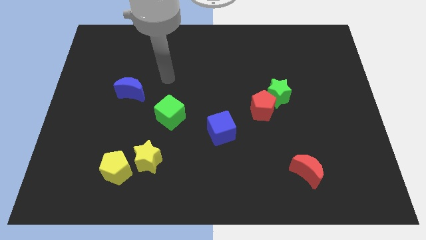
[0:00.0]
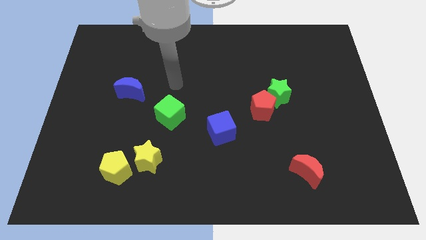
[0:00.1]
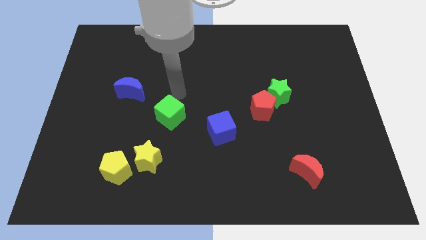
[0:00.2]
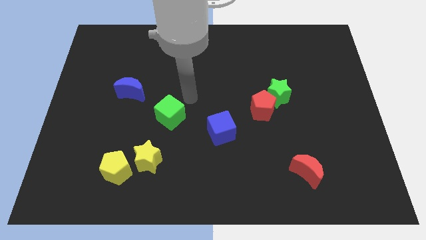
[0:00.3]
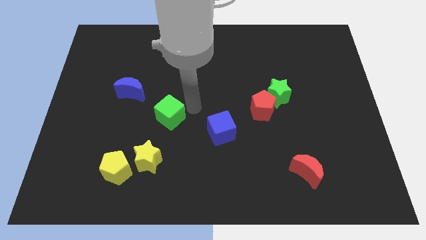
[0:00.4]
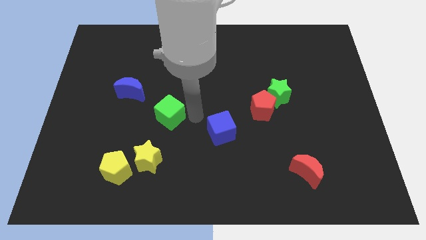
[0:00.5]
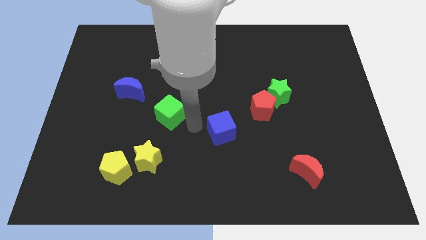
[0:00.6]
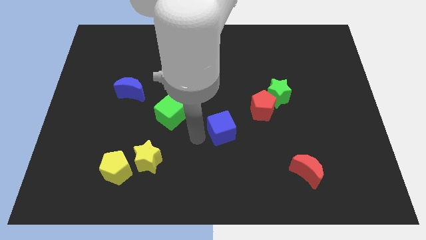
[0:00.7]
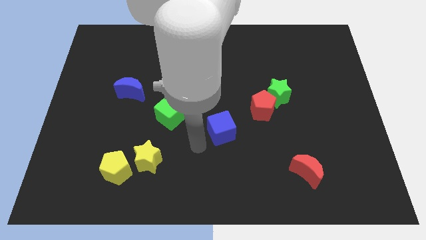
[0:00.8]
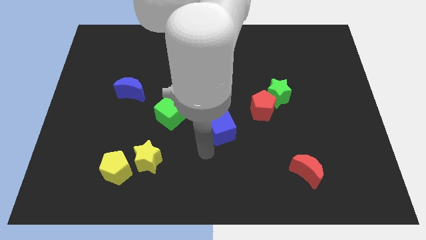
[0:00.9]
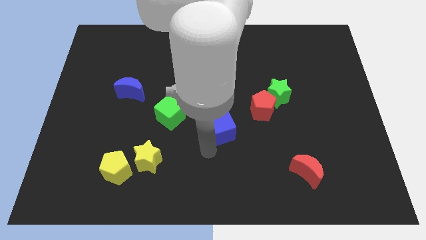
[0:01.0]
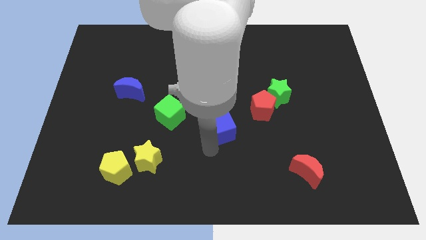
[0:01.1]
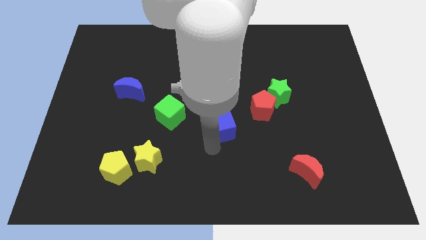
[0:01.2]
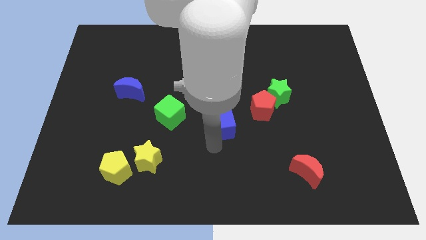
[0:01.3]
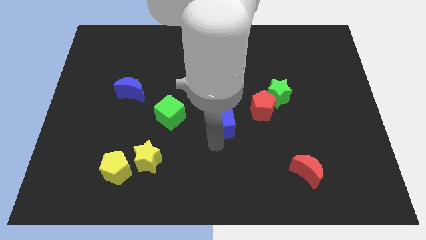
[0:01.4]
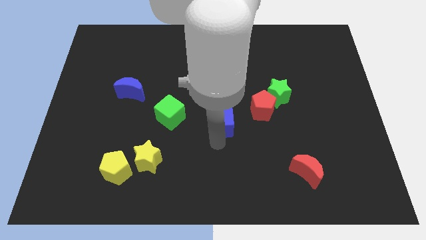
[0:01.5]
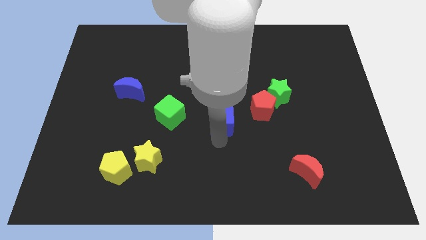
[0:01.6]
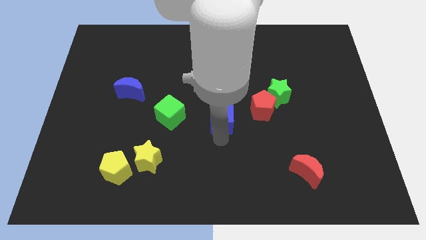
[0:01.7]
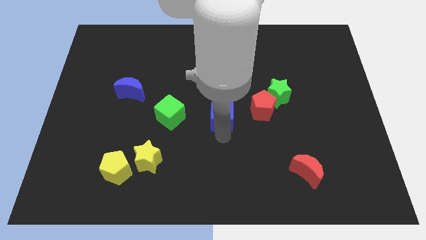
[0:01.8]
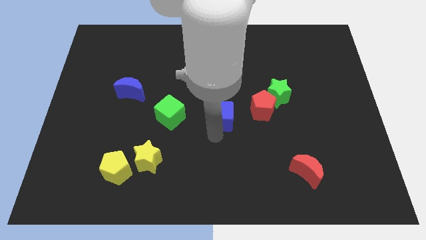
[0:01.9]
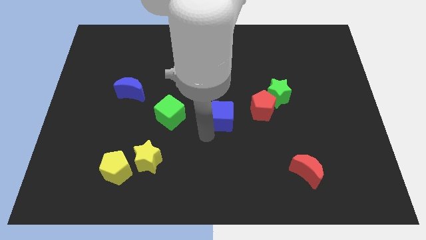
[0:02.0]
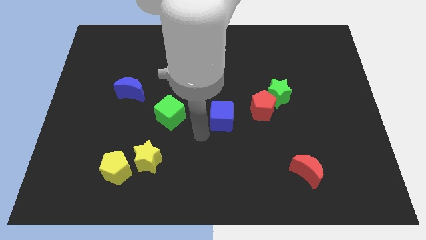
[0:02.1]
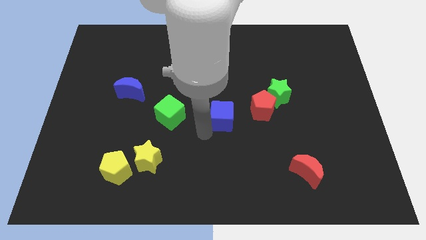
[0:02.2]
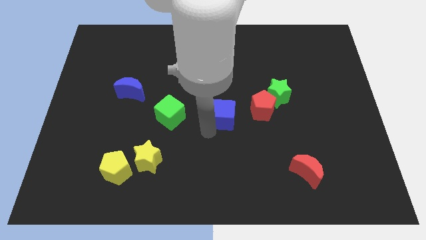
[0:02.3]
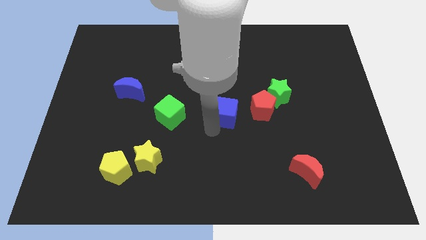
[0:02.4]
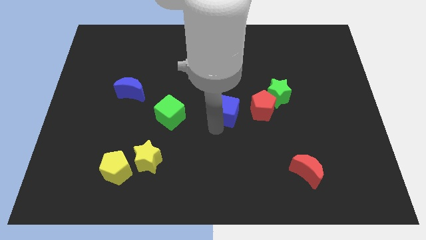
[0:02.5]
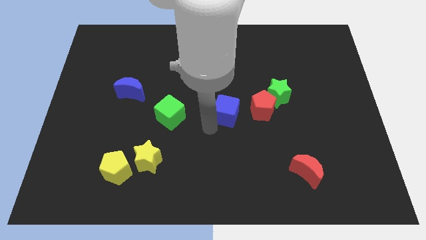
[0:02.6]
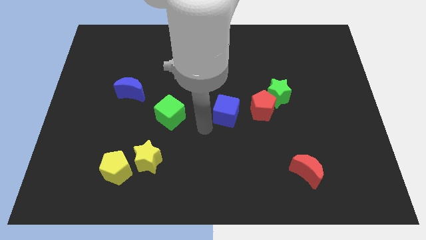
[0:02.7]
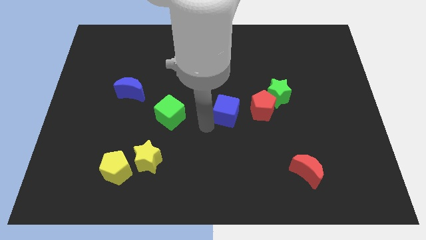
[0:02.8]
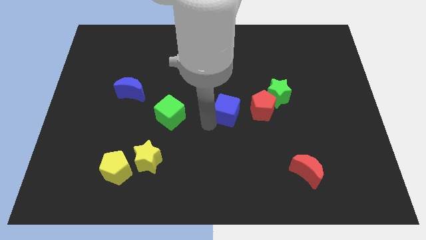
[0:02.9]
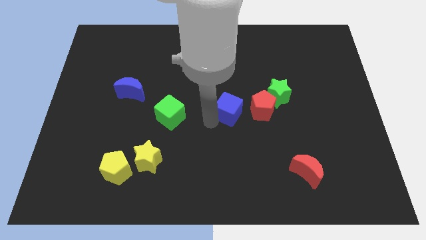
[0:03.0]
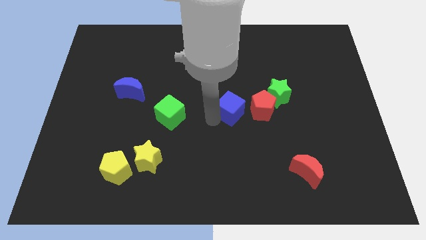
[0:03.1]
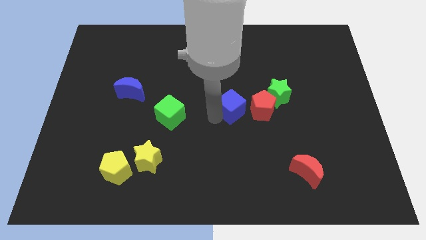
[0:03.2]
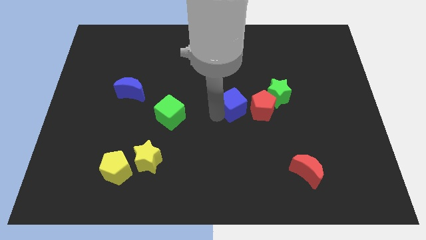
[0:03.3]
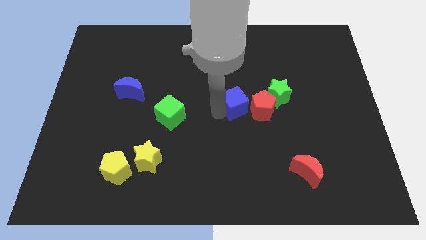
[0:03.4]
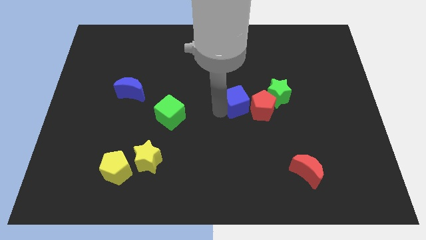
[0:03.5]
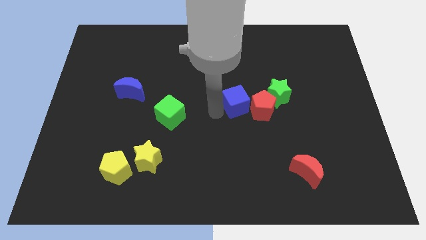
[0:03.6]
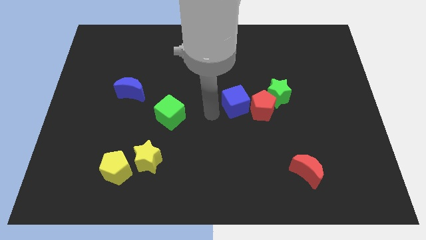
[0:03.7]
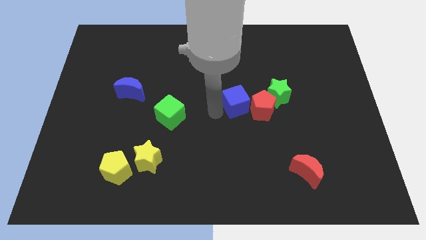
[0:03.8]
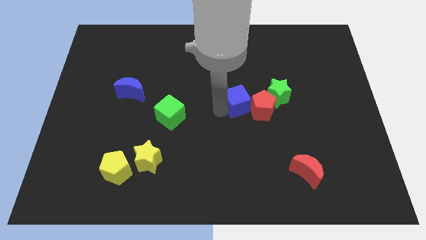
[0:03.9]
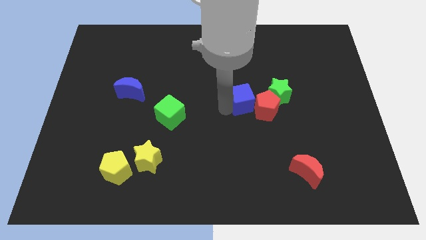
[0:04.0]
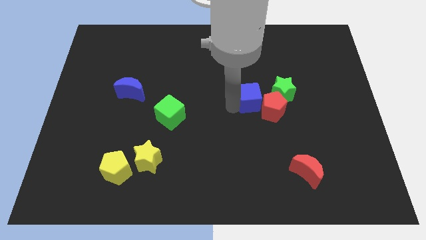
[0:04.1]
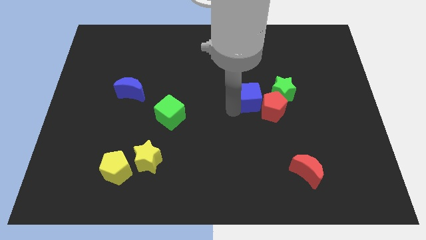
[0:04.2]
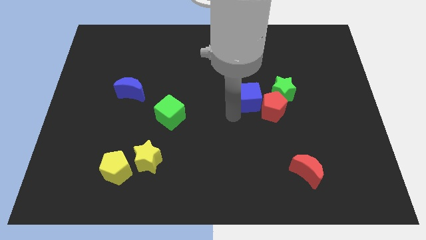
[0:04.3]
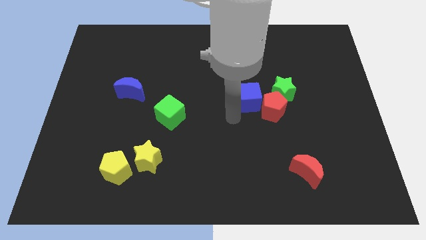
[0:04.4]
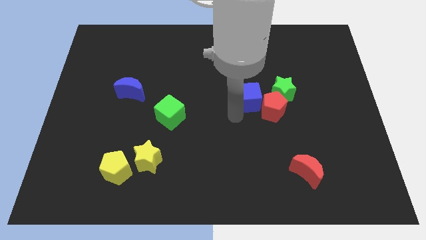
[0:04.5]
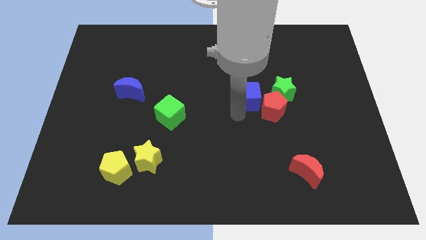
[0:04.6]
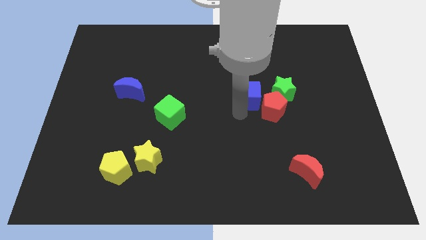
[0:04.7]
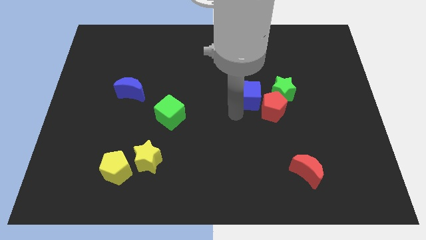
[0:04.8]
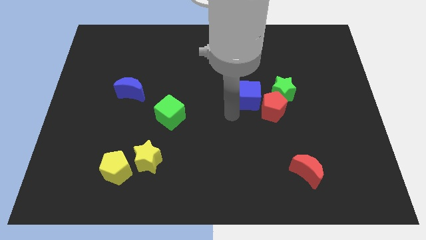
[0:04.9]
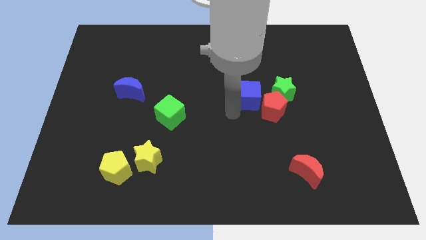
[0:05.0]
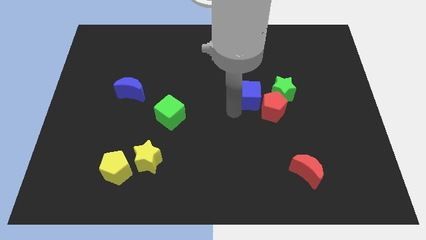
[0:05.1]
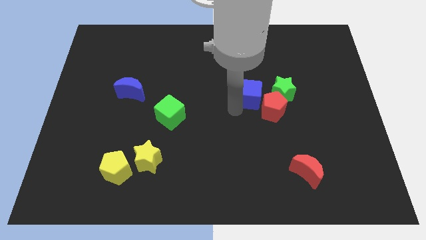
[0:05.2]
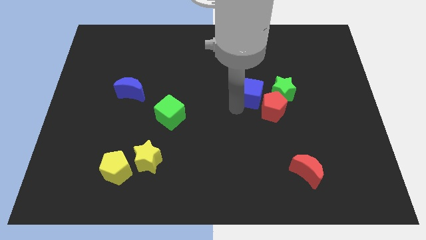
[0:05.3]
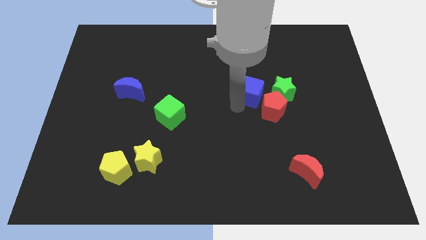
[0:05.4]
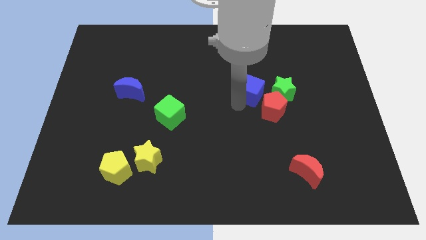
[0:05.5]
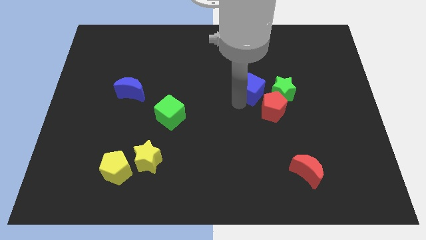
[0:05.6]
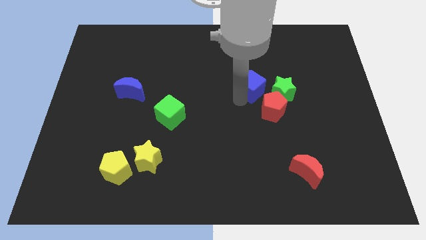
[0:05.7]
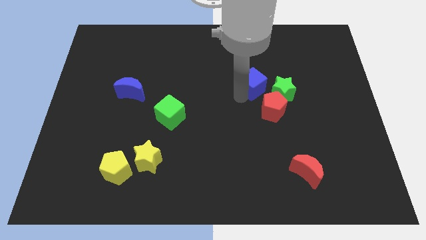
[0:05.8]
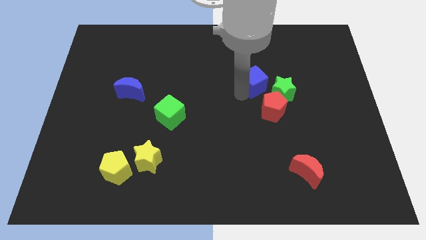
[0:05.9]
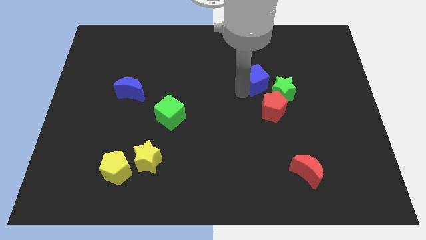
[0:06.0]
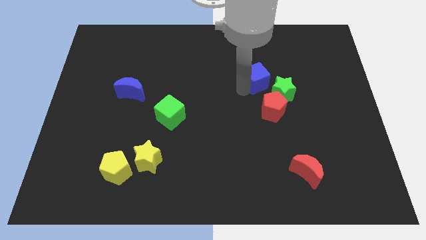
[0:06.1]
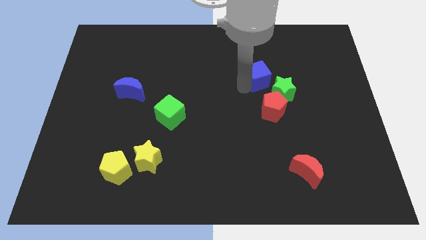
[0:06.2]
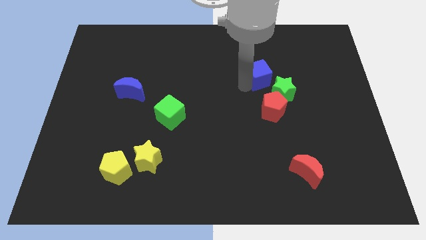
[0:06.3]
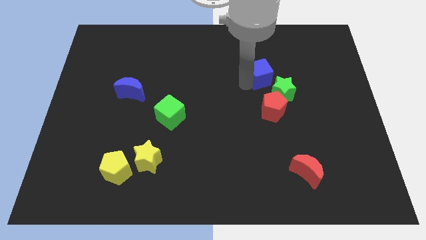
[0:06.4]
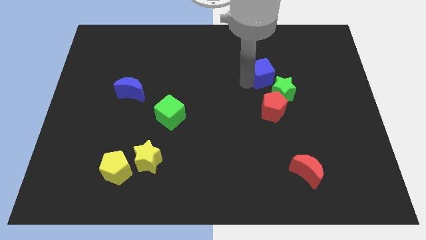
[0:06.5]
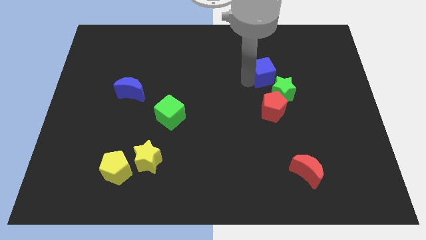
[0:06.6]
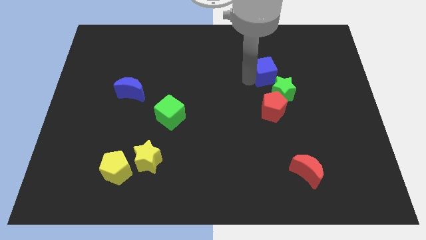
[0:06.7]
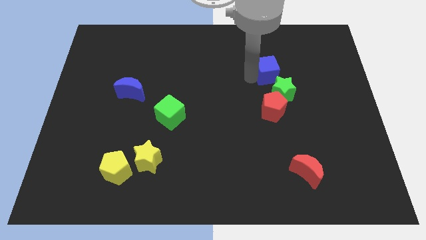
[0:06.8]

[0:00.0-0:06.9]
slide the blue cube diagonally upwards and right

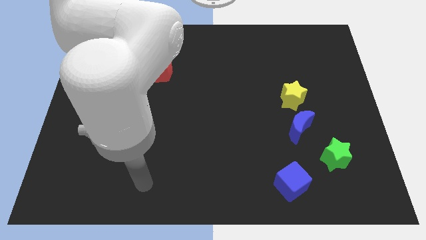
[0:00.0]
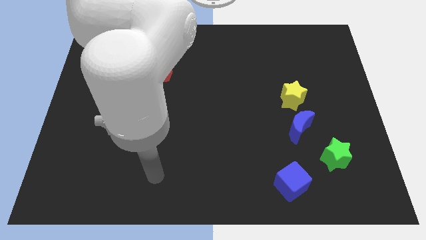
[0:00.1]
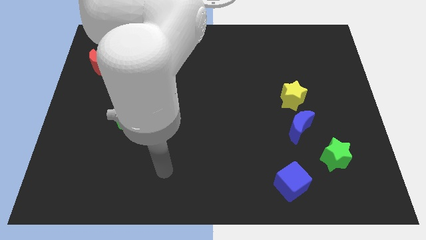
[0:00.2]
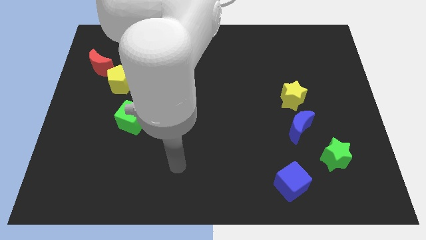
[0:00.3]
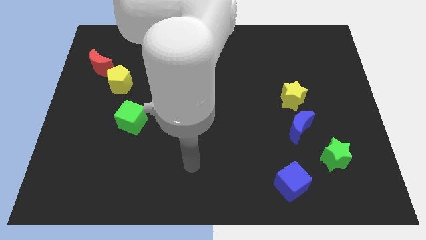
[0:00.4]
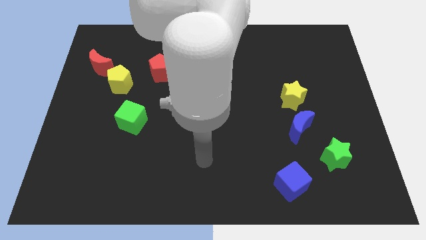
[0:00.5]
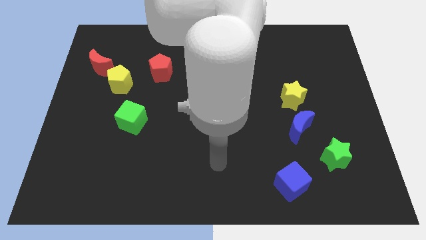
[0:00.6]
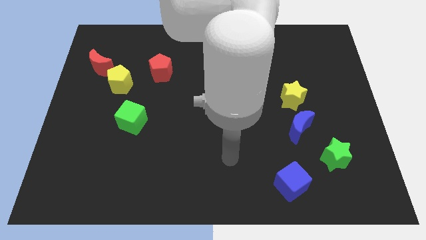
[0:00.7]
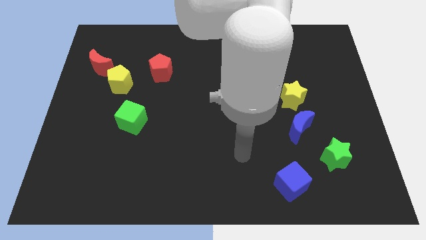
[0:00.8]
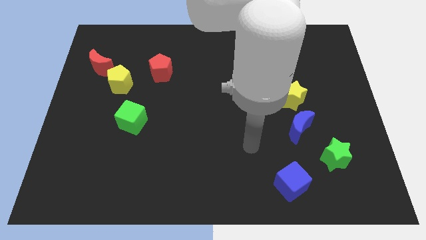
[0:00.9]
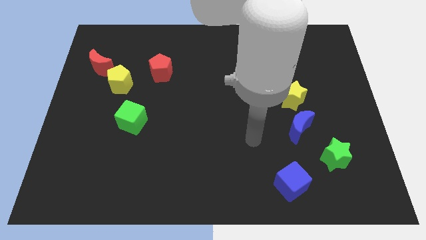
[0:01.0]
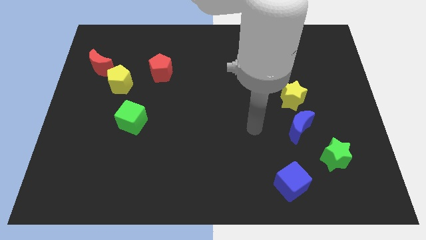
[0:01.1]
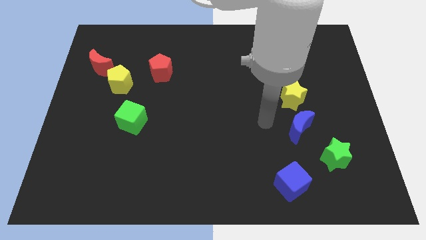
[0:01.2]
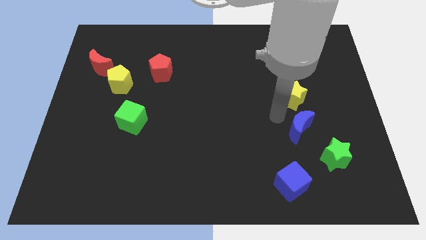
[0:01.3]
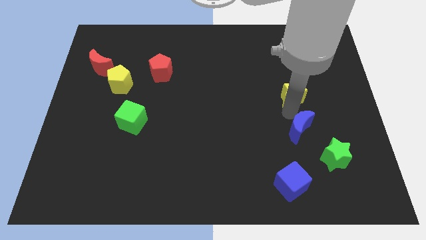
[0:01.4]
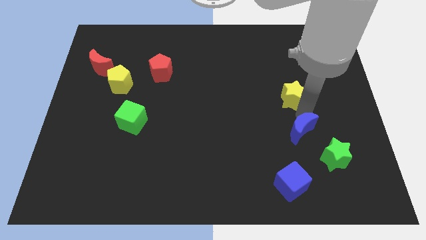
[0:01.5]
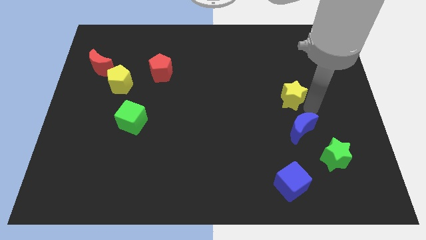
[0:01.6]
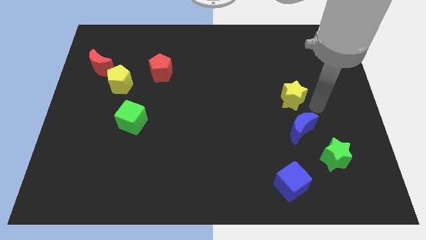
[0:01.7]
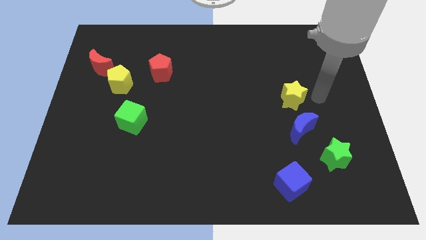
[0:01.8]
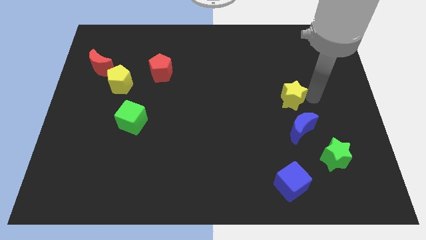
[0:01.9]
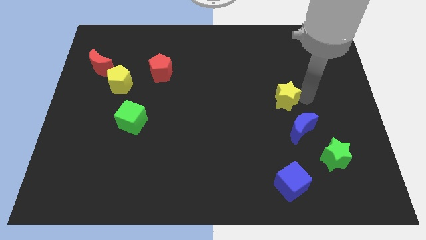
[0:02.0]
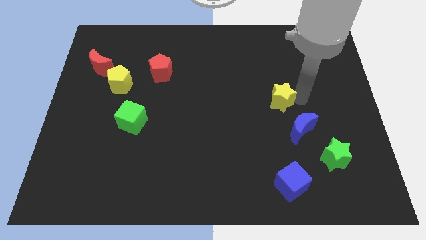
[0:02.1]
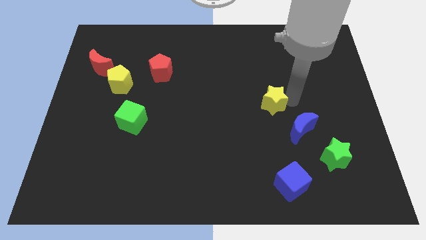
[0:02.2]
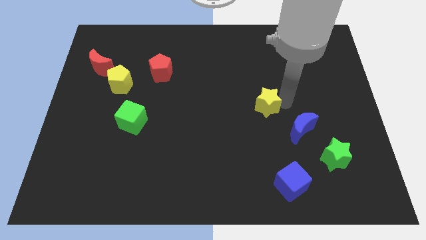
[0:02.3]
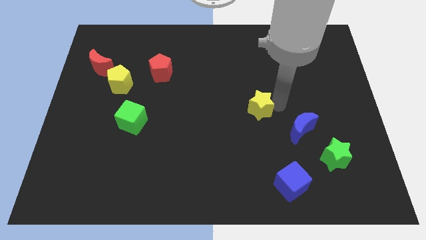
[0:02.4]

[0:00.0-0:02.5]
slightly slide the yellow star to the left
